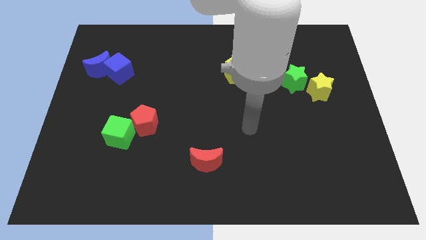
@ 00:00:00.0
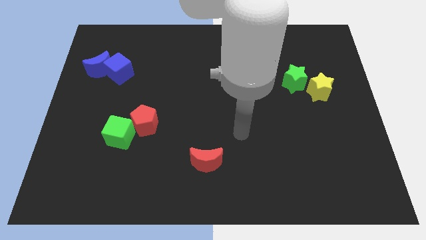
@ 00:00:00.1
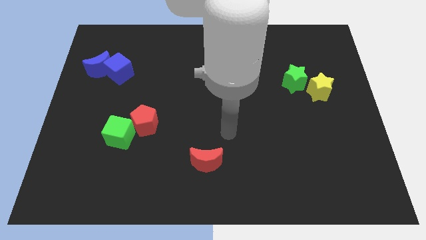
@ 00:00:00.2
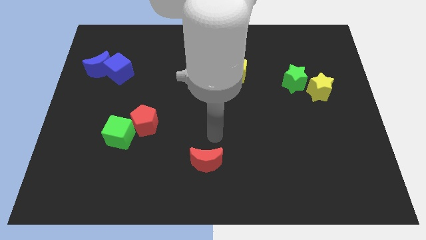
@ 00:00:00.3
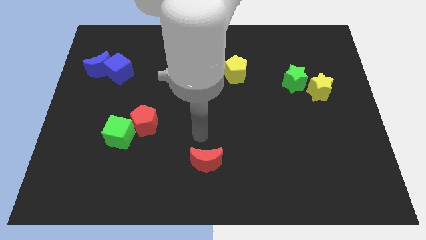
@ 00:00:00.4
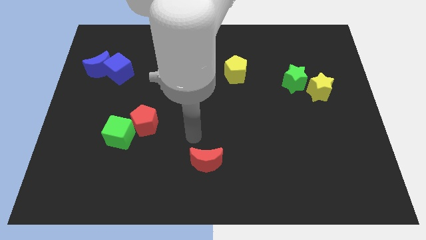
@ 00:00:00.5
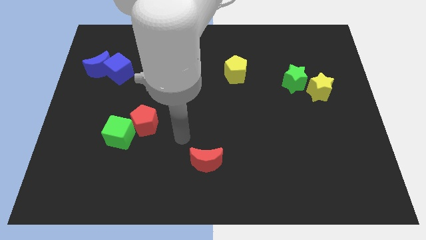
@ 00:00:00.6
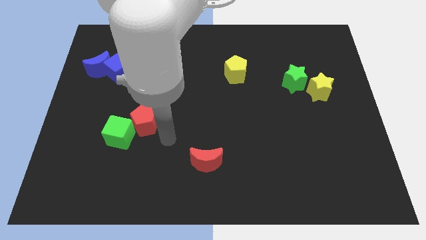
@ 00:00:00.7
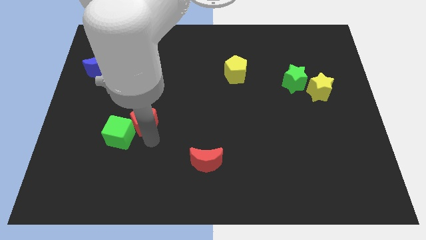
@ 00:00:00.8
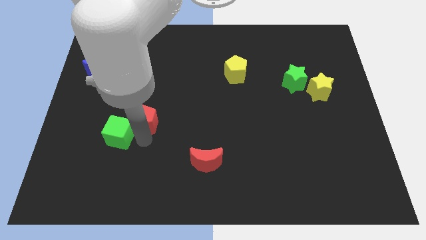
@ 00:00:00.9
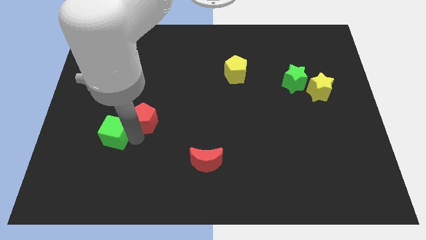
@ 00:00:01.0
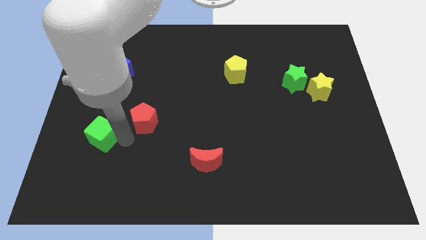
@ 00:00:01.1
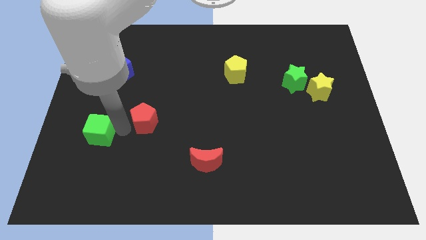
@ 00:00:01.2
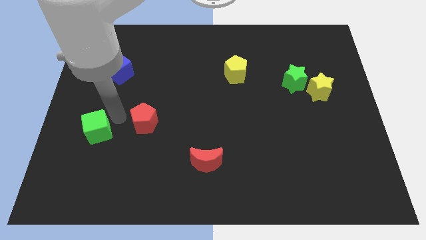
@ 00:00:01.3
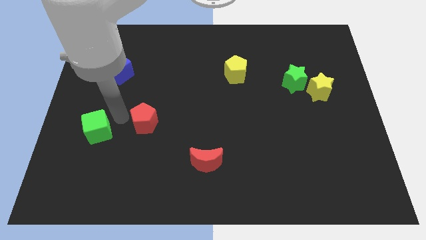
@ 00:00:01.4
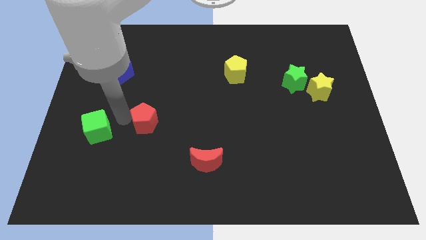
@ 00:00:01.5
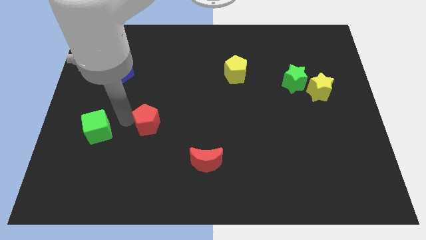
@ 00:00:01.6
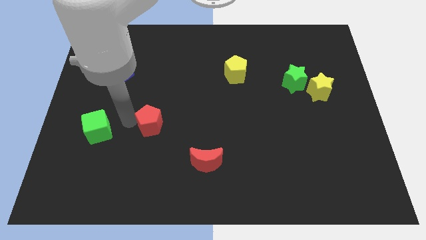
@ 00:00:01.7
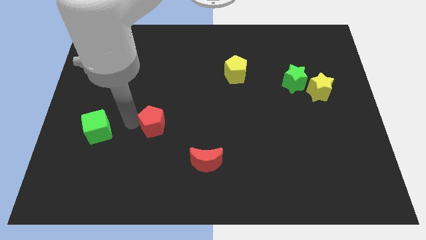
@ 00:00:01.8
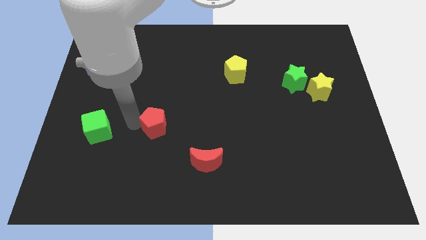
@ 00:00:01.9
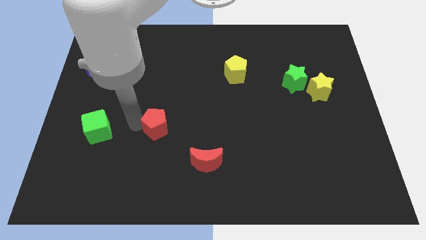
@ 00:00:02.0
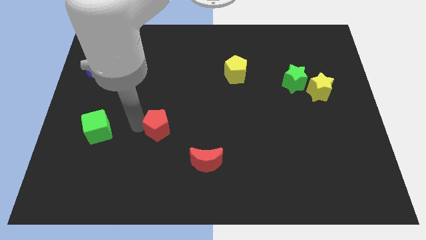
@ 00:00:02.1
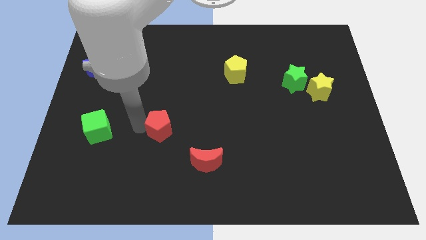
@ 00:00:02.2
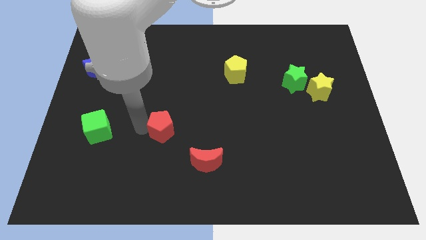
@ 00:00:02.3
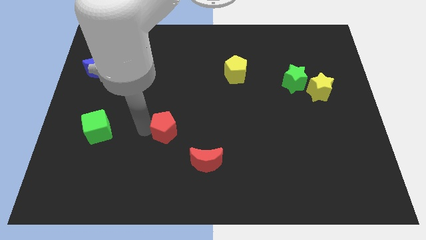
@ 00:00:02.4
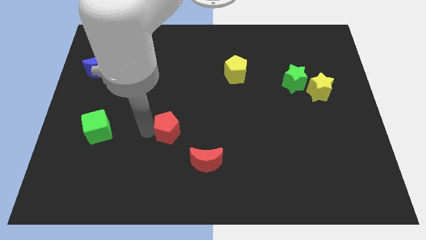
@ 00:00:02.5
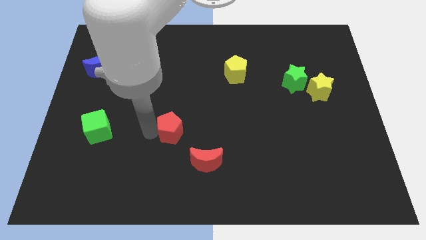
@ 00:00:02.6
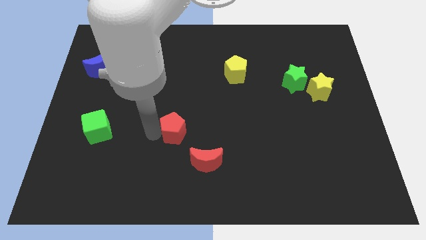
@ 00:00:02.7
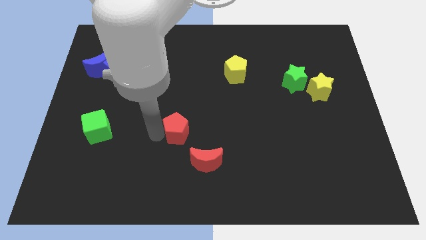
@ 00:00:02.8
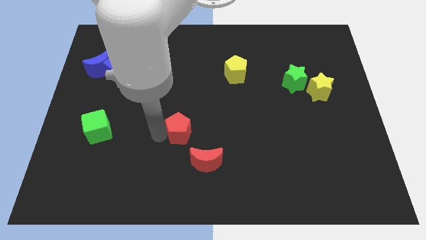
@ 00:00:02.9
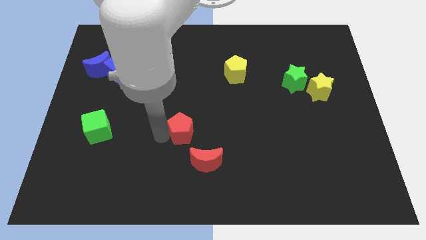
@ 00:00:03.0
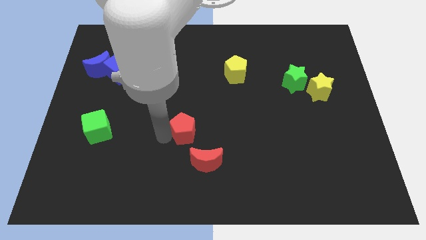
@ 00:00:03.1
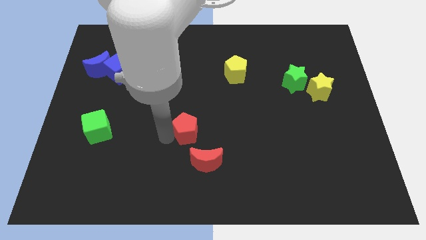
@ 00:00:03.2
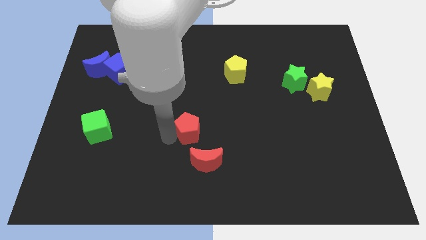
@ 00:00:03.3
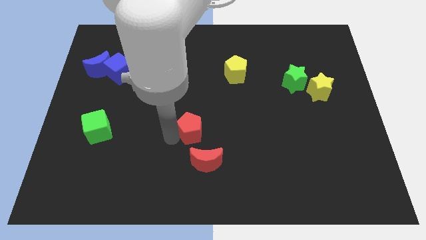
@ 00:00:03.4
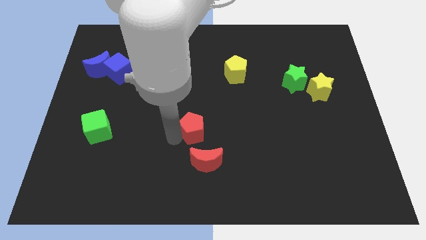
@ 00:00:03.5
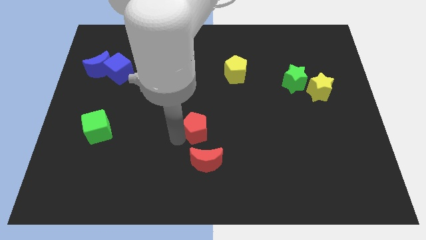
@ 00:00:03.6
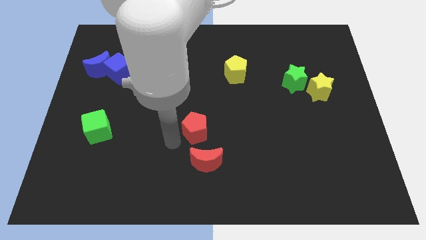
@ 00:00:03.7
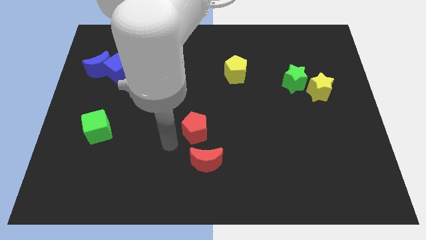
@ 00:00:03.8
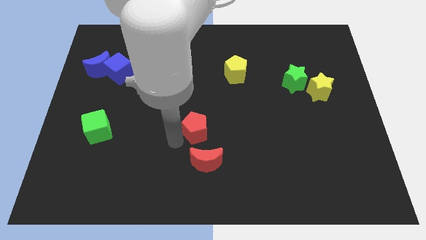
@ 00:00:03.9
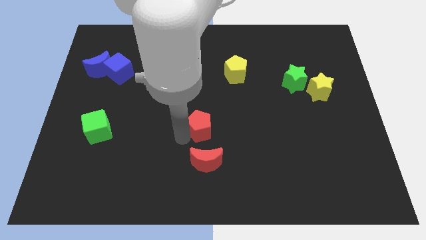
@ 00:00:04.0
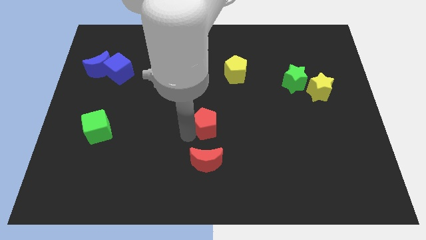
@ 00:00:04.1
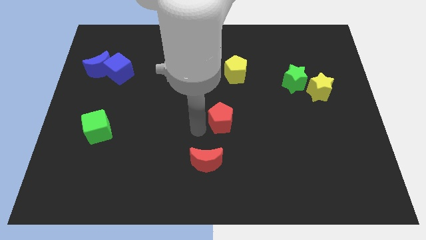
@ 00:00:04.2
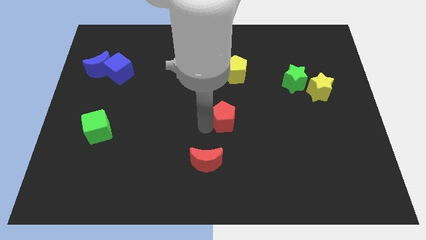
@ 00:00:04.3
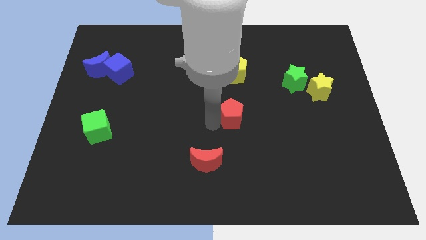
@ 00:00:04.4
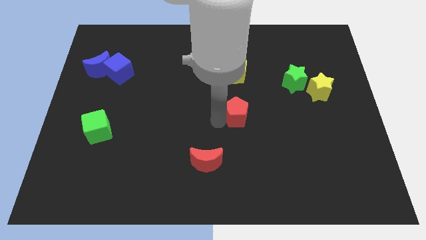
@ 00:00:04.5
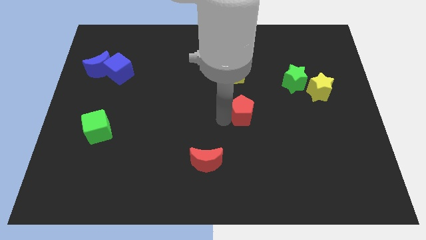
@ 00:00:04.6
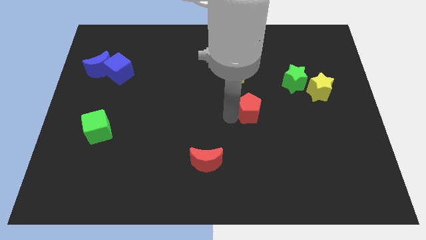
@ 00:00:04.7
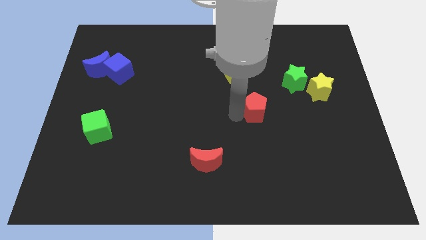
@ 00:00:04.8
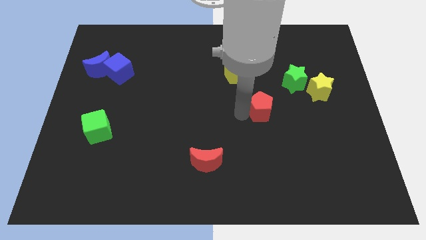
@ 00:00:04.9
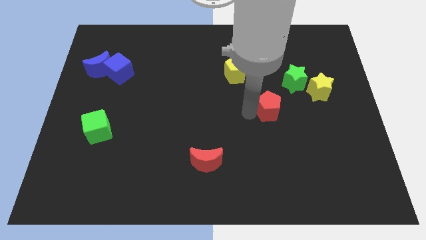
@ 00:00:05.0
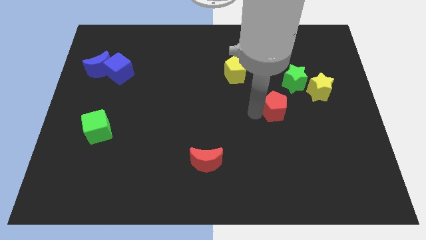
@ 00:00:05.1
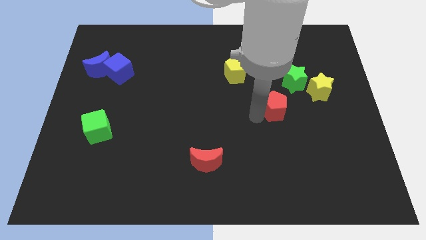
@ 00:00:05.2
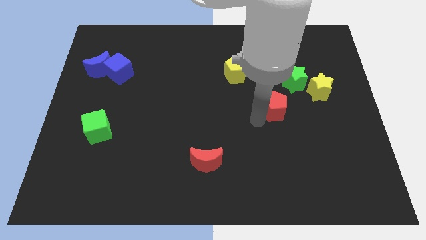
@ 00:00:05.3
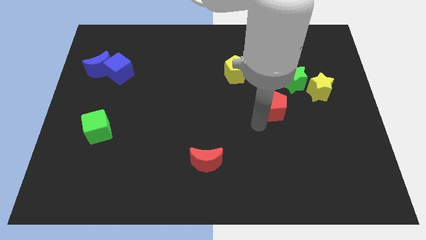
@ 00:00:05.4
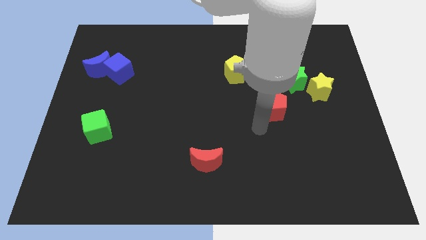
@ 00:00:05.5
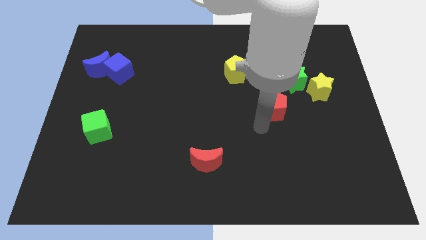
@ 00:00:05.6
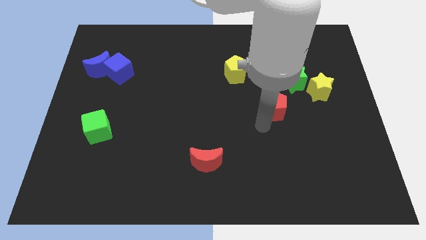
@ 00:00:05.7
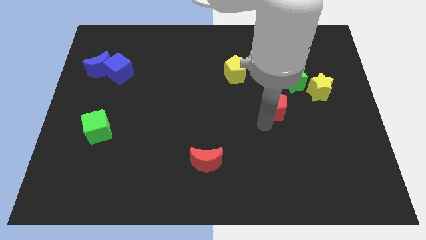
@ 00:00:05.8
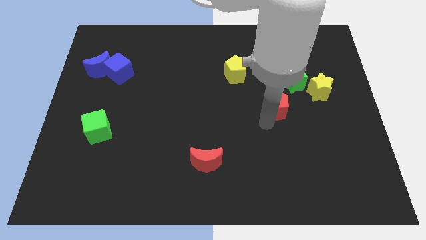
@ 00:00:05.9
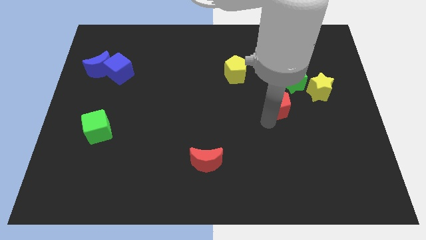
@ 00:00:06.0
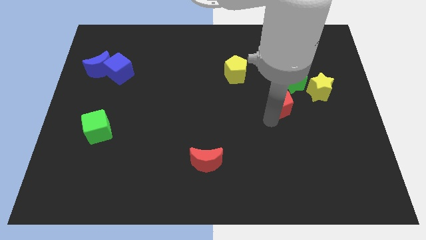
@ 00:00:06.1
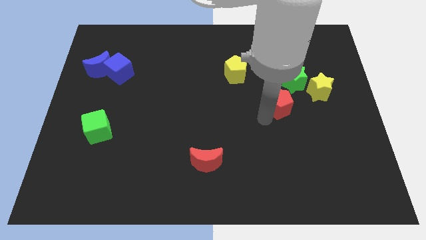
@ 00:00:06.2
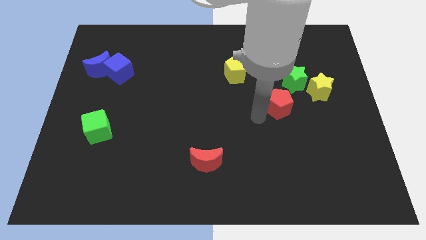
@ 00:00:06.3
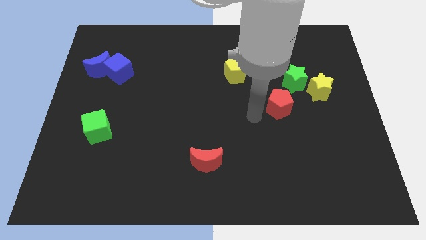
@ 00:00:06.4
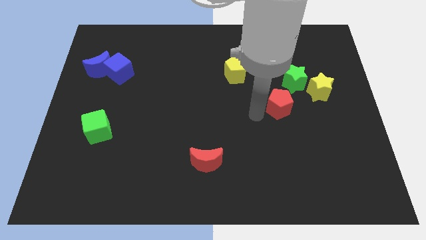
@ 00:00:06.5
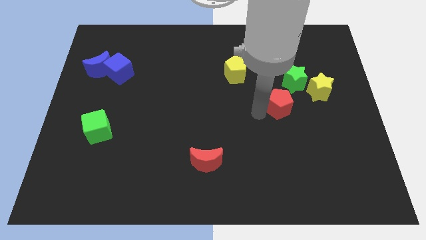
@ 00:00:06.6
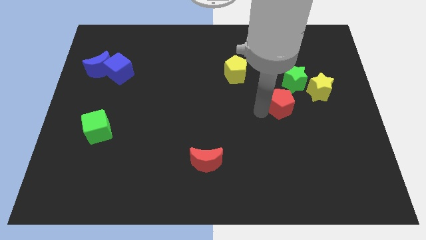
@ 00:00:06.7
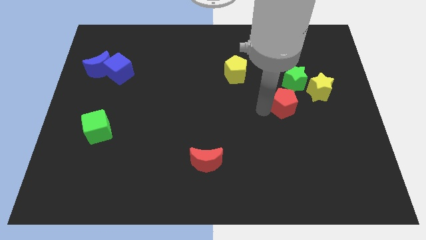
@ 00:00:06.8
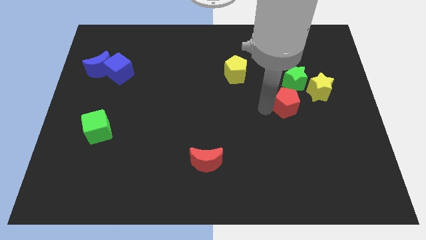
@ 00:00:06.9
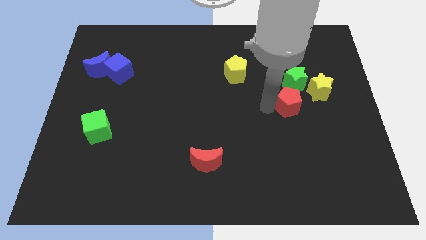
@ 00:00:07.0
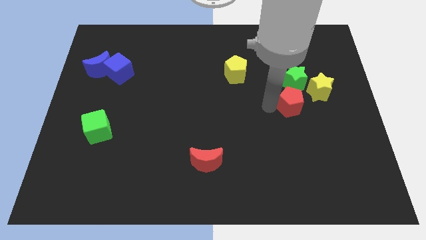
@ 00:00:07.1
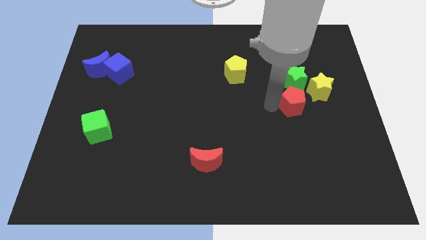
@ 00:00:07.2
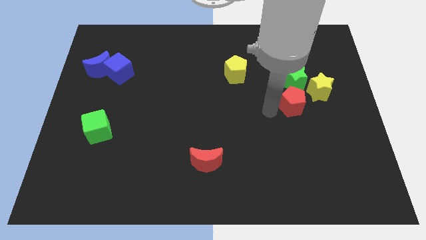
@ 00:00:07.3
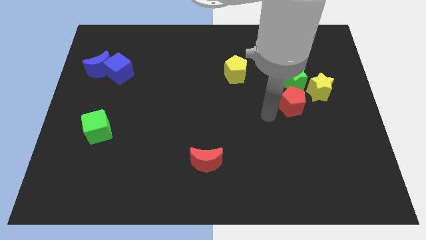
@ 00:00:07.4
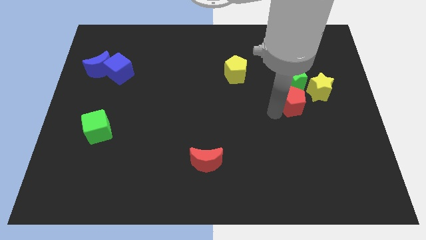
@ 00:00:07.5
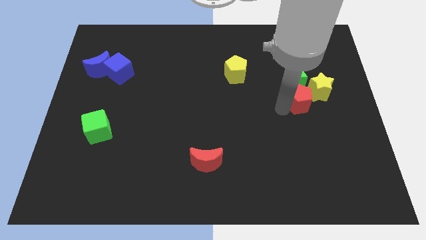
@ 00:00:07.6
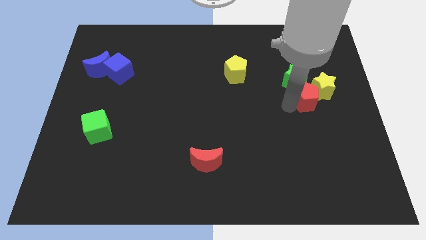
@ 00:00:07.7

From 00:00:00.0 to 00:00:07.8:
put the red pentagon close to the yellow star
